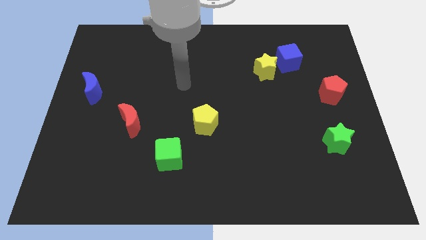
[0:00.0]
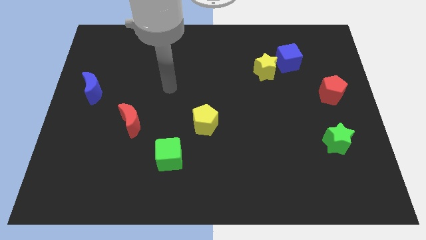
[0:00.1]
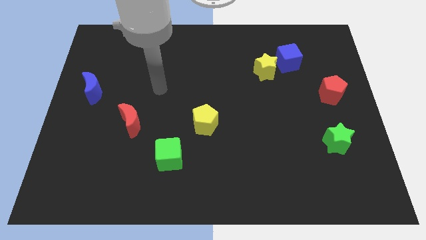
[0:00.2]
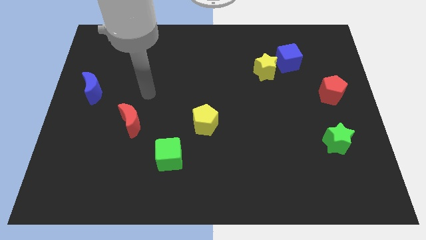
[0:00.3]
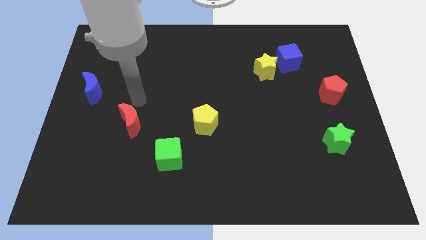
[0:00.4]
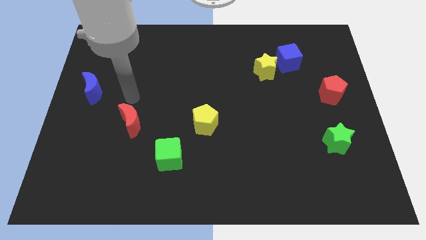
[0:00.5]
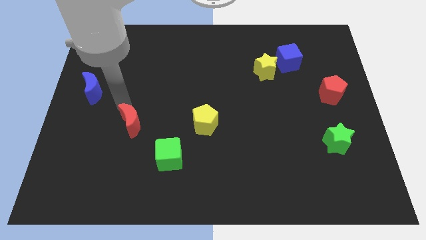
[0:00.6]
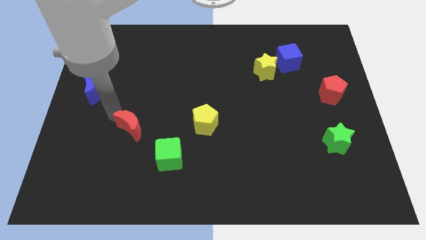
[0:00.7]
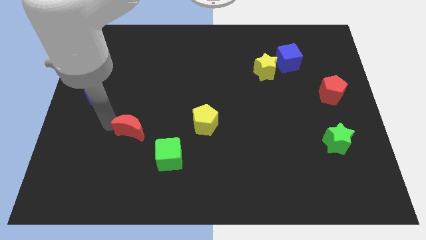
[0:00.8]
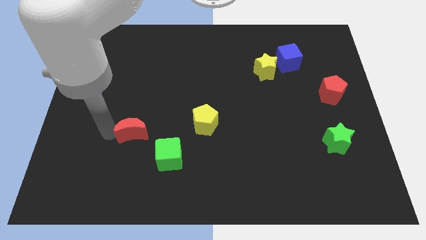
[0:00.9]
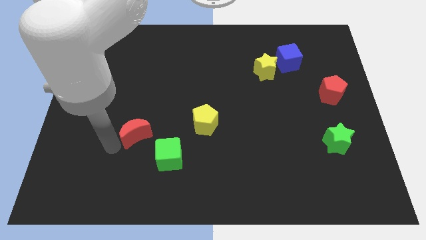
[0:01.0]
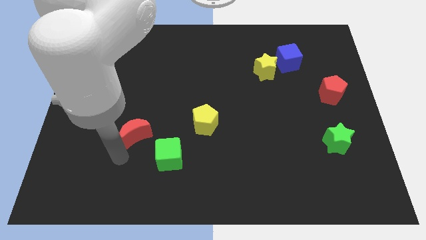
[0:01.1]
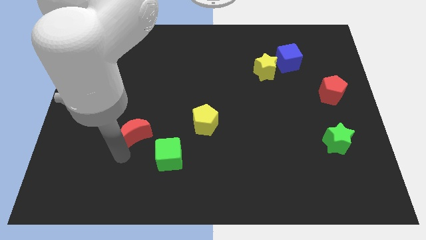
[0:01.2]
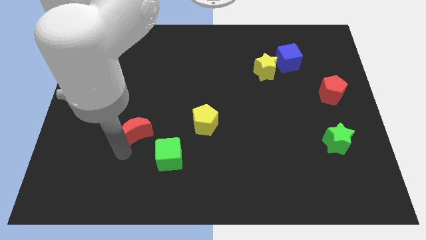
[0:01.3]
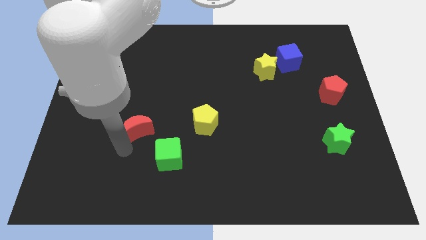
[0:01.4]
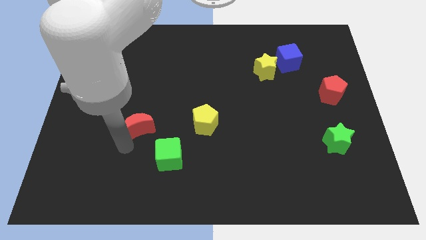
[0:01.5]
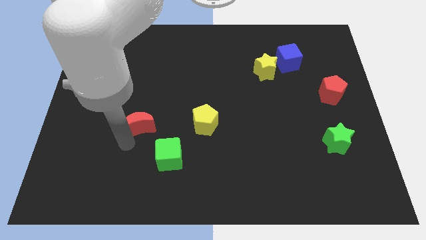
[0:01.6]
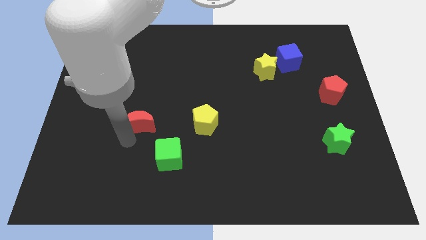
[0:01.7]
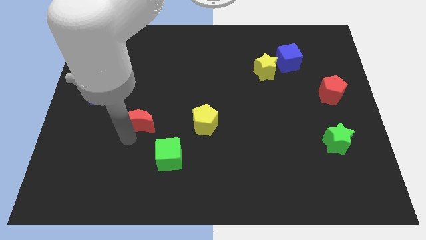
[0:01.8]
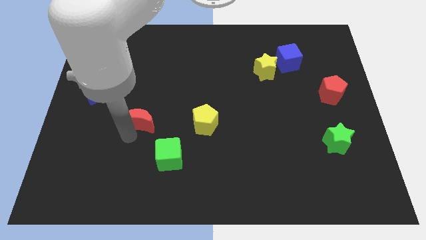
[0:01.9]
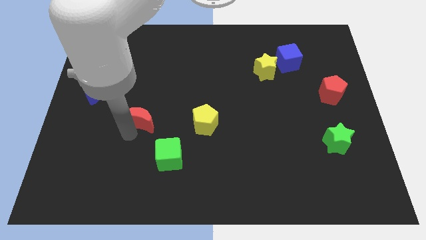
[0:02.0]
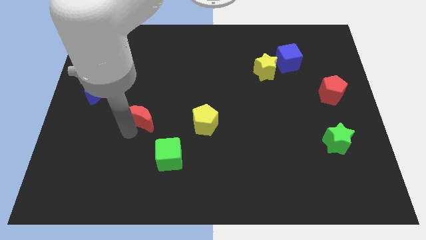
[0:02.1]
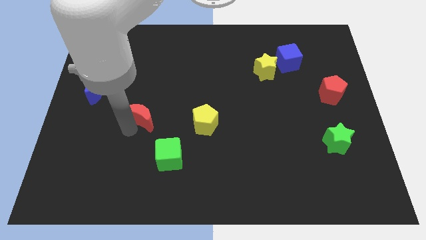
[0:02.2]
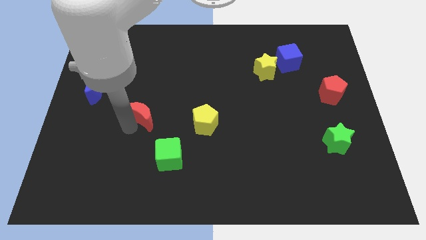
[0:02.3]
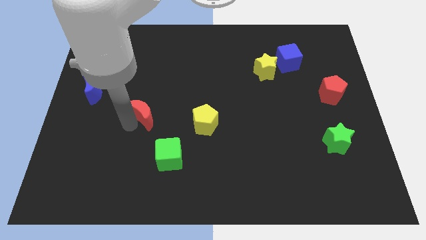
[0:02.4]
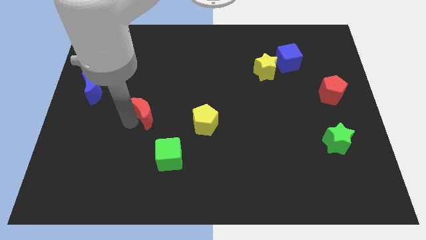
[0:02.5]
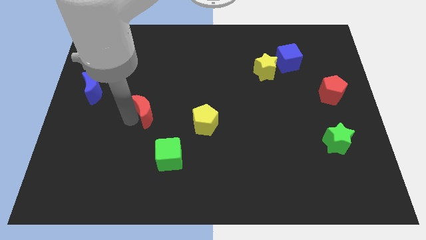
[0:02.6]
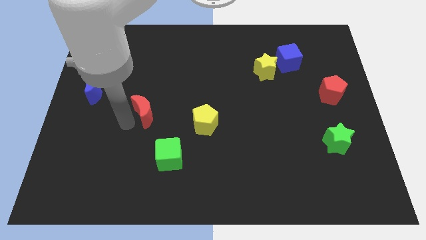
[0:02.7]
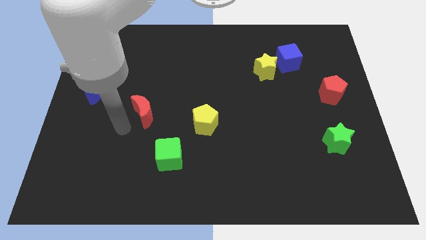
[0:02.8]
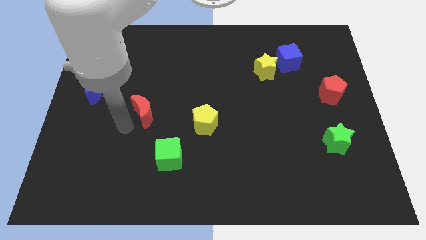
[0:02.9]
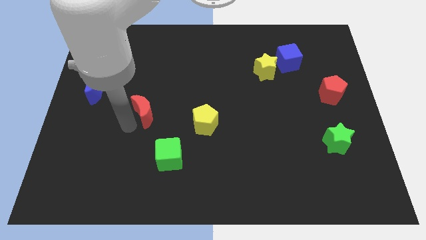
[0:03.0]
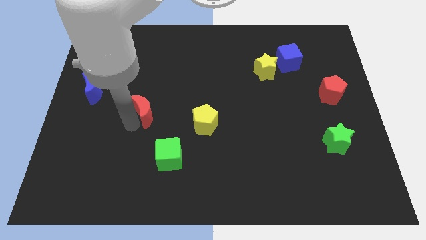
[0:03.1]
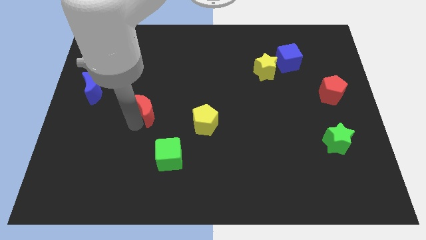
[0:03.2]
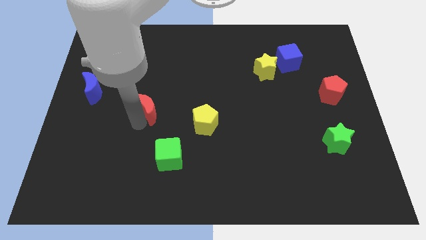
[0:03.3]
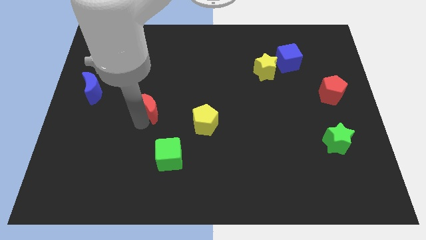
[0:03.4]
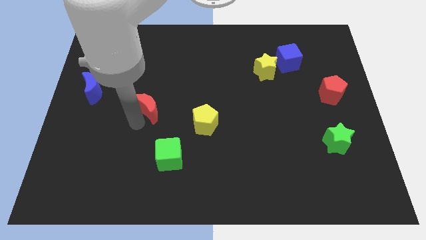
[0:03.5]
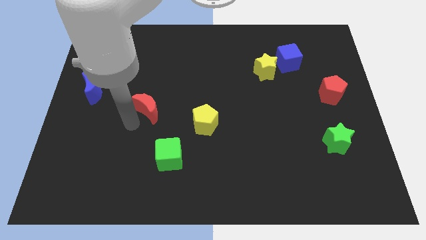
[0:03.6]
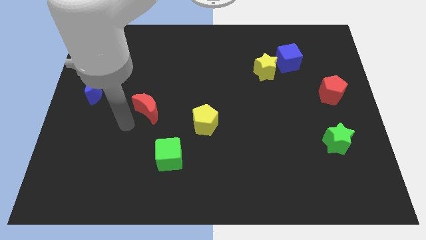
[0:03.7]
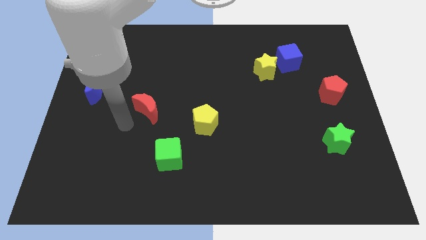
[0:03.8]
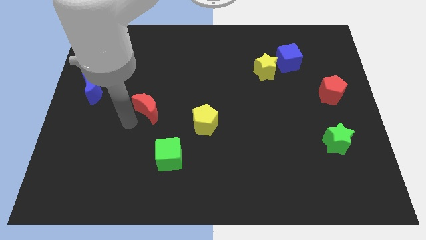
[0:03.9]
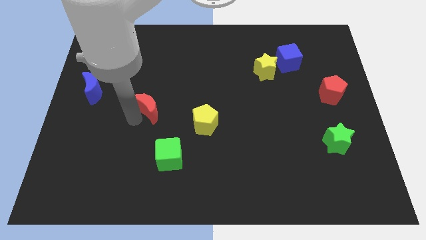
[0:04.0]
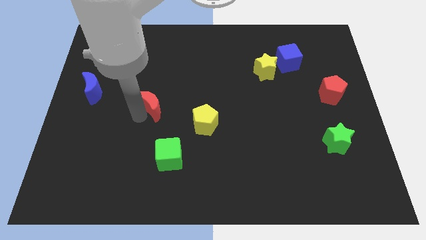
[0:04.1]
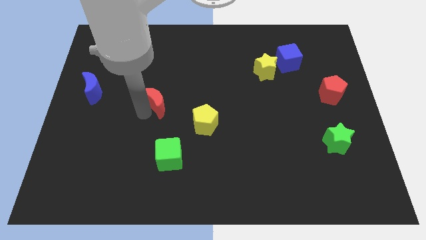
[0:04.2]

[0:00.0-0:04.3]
slightly push the red moon upwards and right

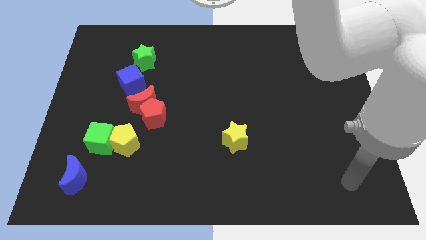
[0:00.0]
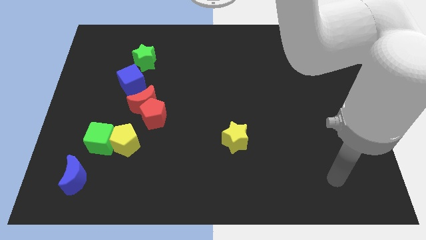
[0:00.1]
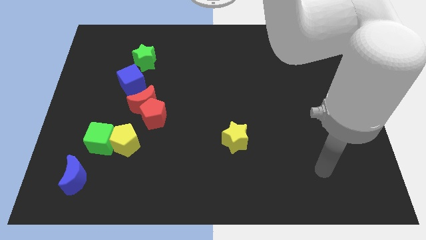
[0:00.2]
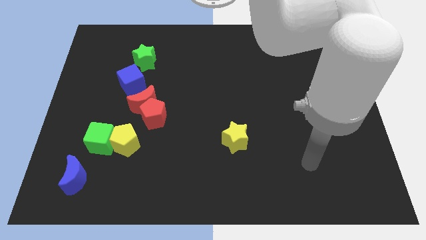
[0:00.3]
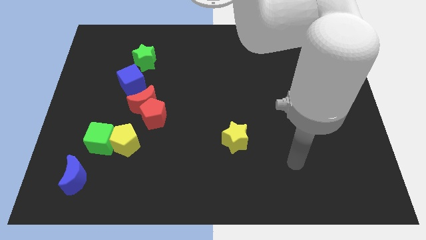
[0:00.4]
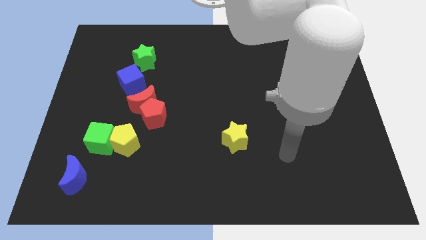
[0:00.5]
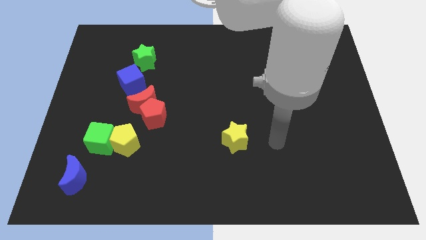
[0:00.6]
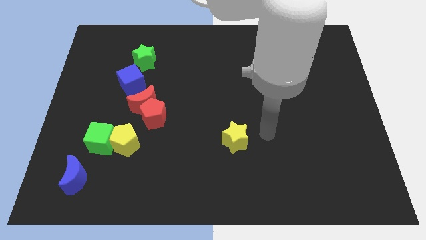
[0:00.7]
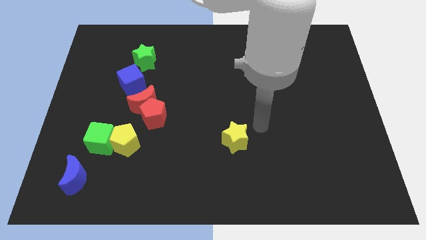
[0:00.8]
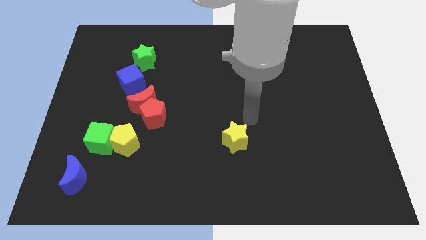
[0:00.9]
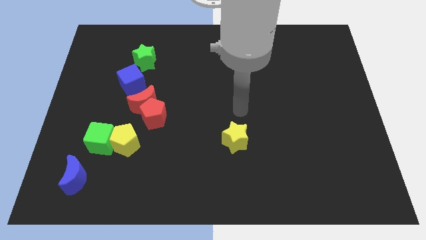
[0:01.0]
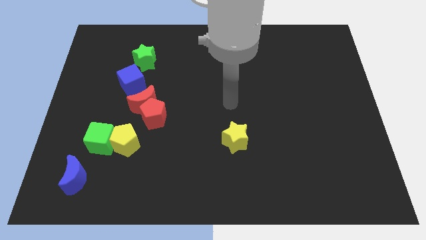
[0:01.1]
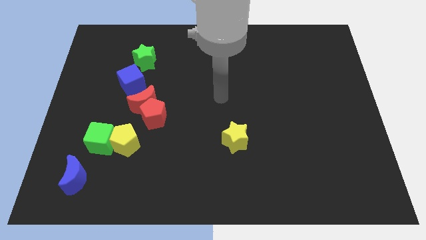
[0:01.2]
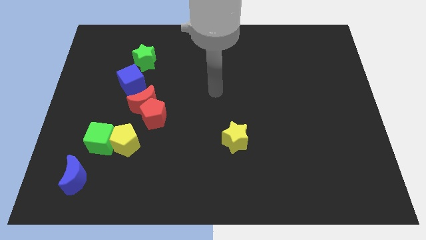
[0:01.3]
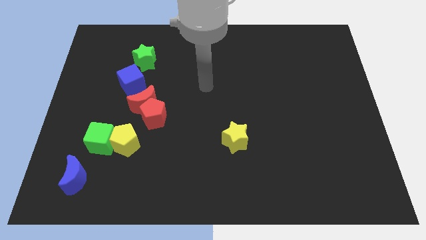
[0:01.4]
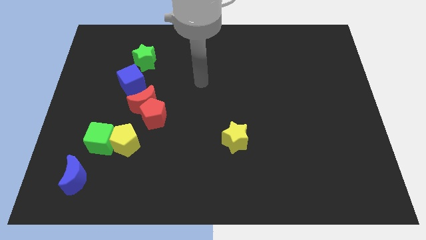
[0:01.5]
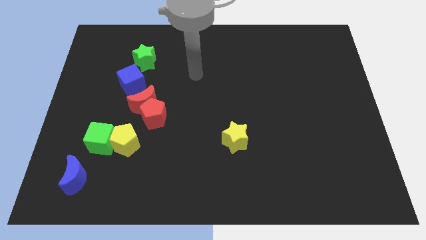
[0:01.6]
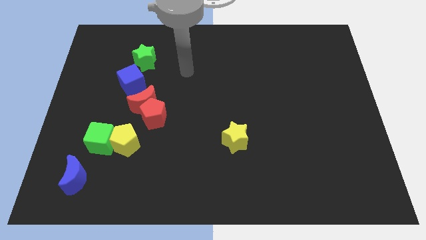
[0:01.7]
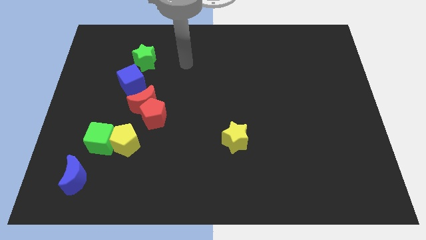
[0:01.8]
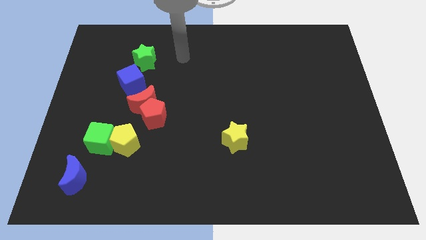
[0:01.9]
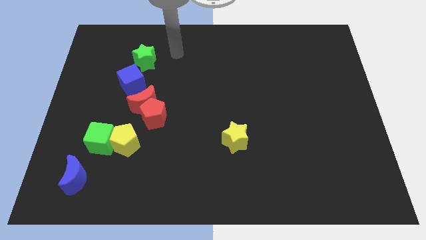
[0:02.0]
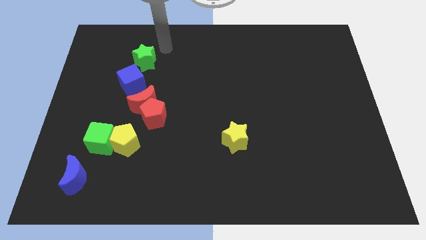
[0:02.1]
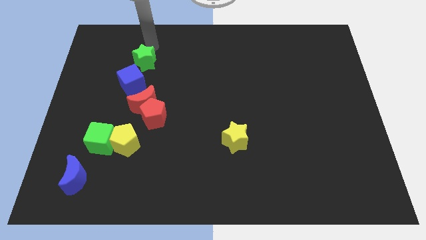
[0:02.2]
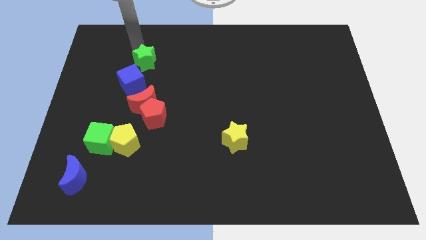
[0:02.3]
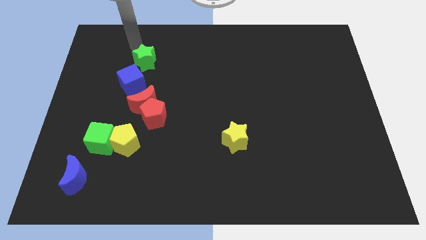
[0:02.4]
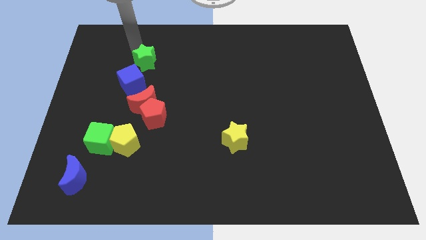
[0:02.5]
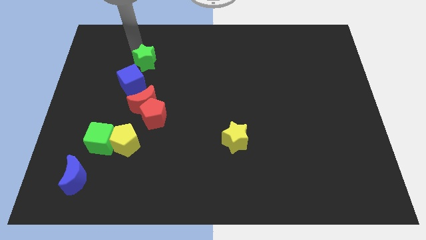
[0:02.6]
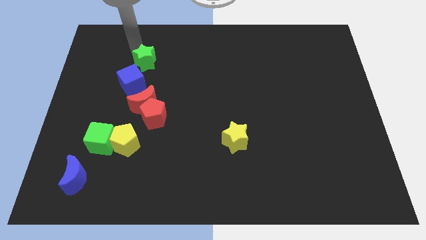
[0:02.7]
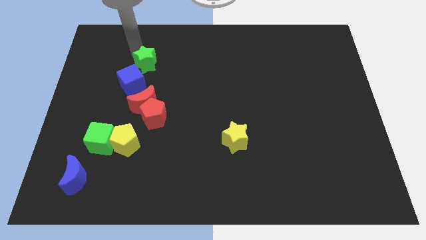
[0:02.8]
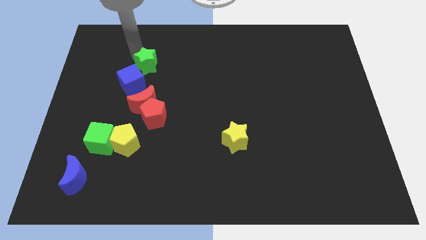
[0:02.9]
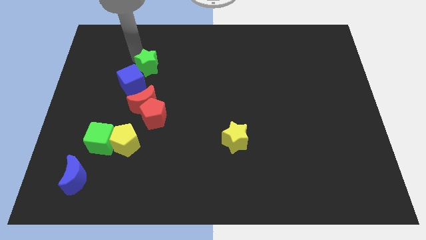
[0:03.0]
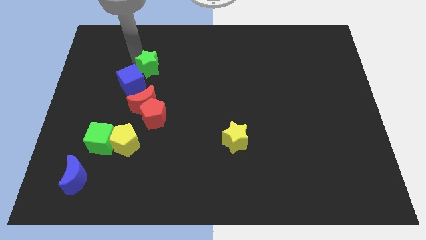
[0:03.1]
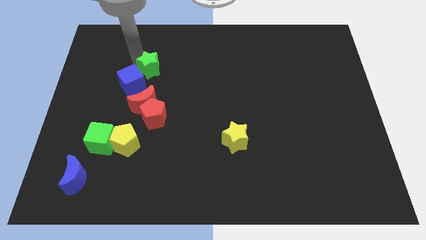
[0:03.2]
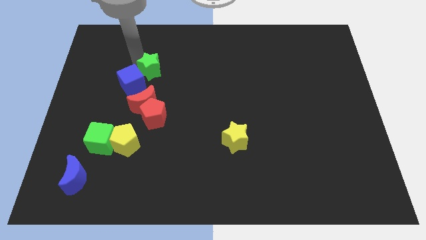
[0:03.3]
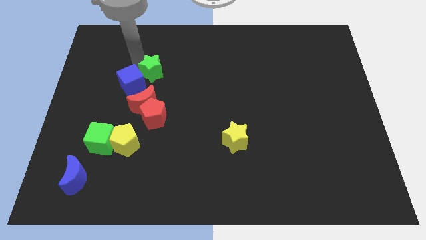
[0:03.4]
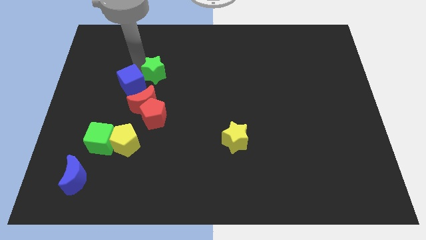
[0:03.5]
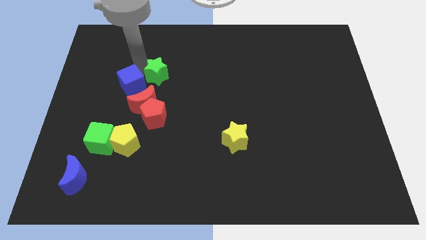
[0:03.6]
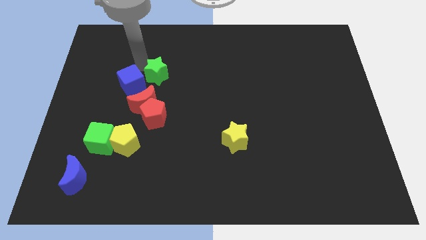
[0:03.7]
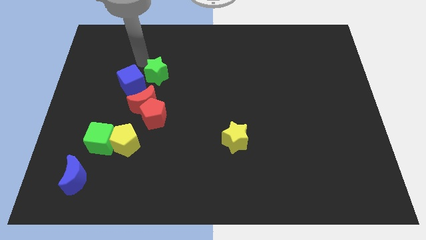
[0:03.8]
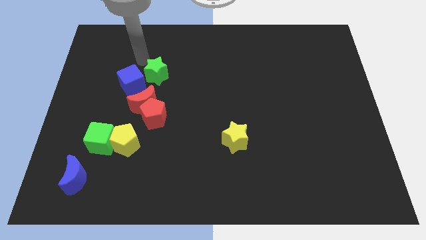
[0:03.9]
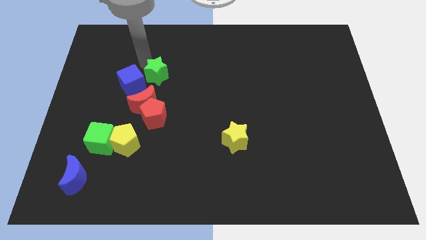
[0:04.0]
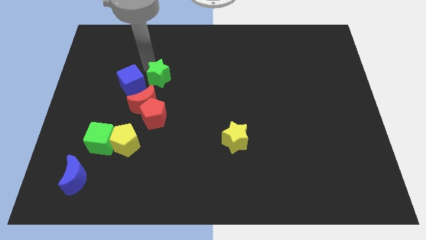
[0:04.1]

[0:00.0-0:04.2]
push the green star downwards and then right a little bit
